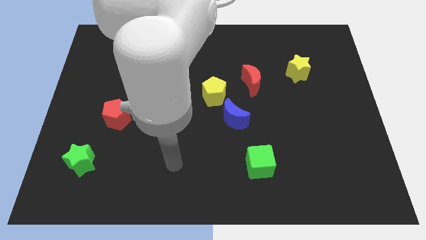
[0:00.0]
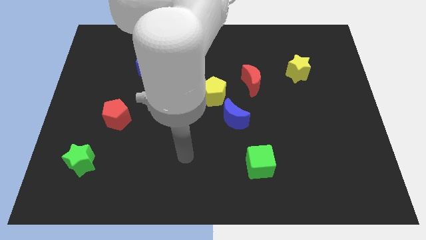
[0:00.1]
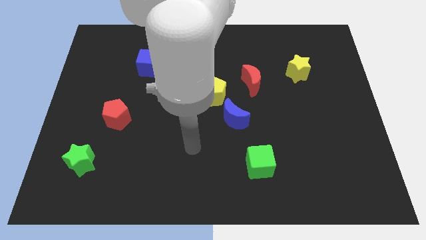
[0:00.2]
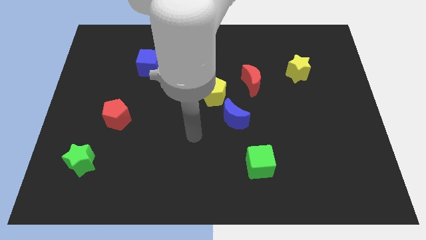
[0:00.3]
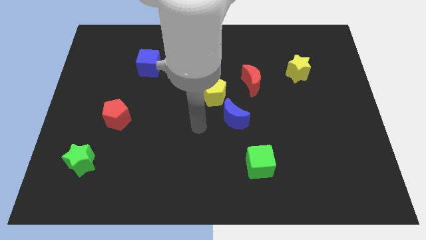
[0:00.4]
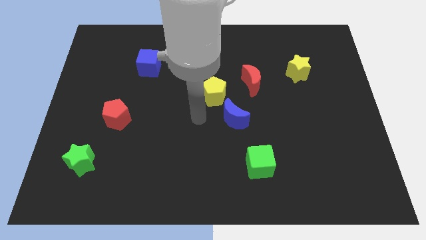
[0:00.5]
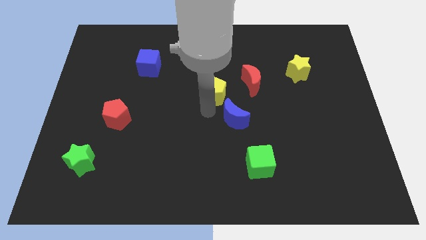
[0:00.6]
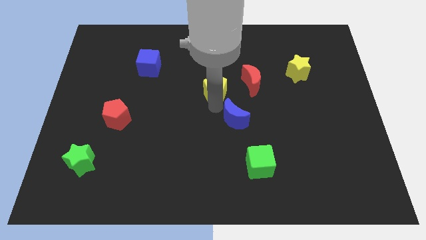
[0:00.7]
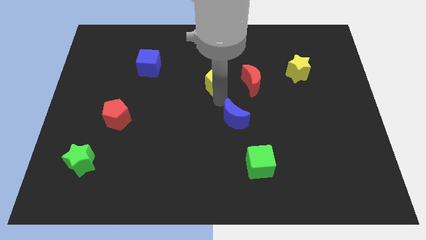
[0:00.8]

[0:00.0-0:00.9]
move the blue moon away from the yellow pentagon

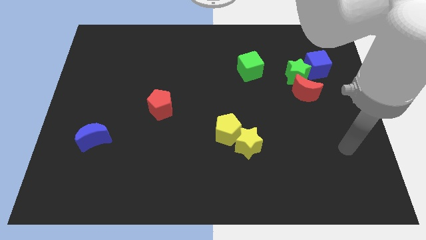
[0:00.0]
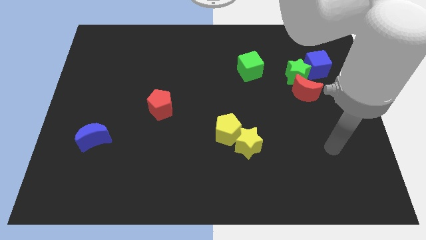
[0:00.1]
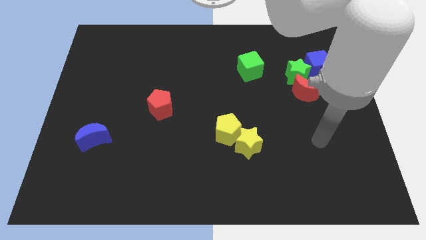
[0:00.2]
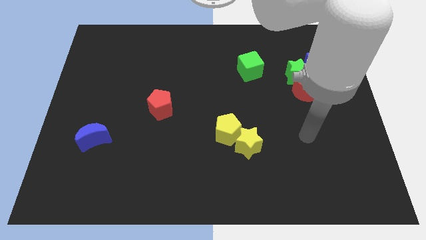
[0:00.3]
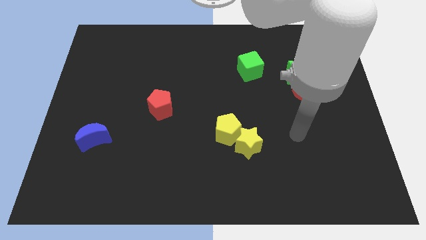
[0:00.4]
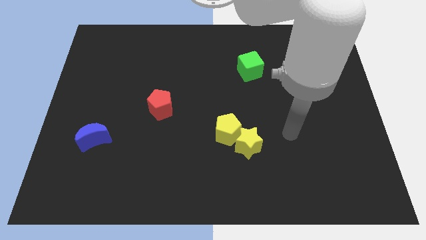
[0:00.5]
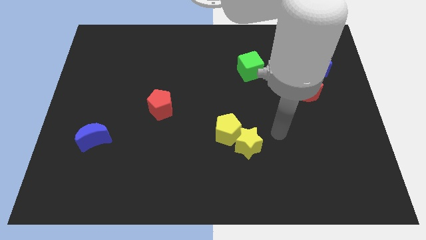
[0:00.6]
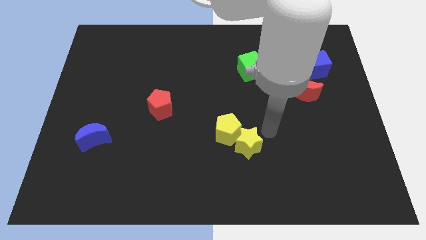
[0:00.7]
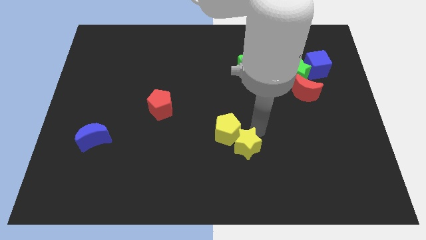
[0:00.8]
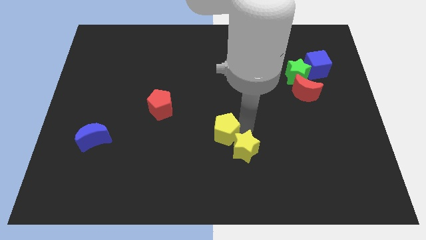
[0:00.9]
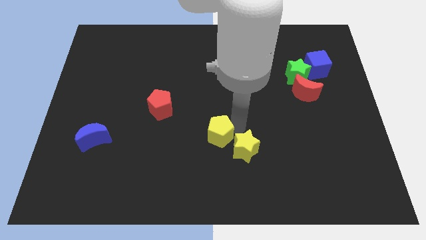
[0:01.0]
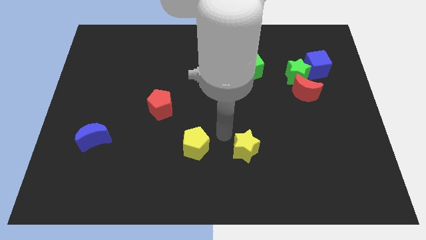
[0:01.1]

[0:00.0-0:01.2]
pull the yellow star apart from the yellow pentagon

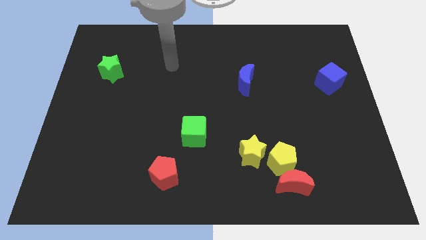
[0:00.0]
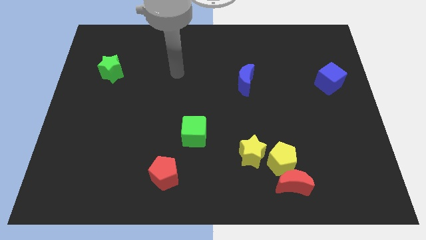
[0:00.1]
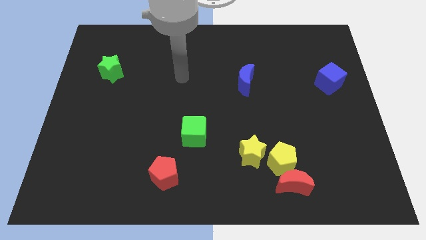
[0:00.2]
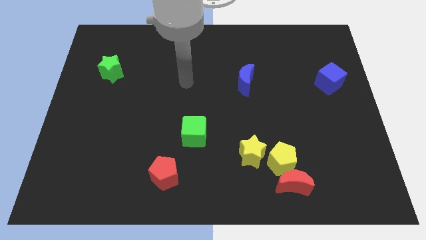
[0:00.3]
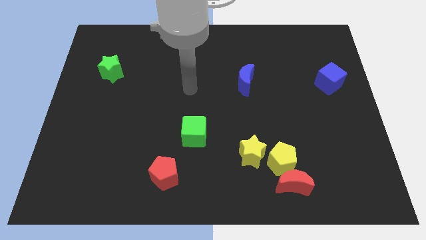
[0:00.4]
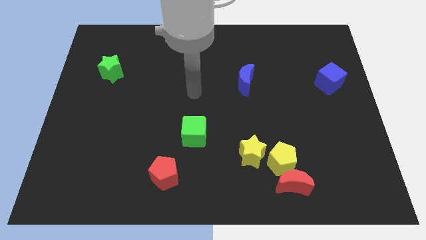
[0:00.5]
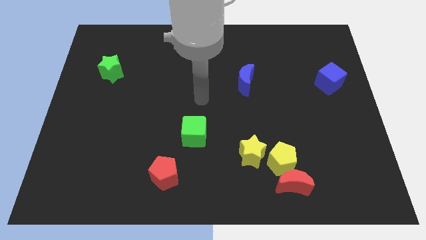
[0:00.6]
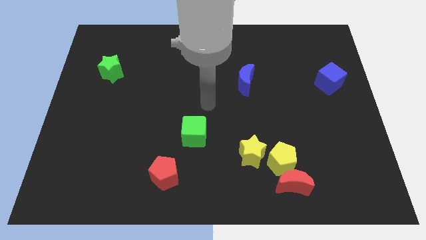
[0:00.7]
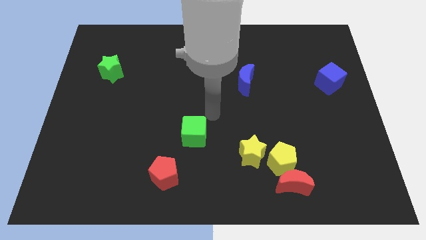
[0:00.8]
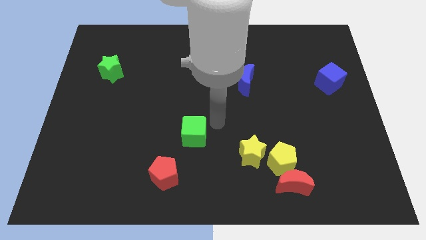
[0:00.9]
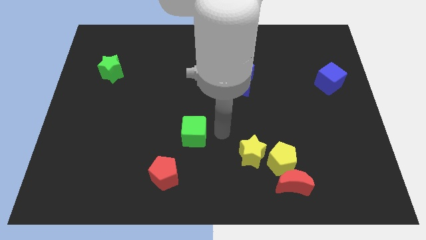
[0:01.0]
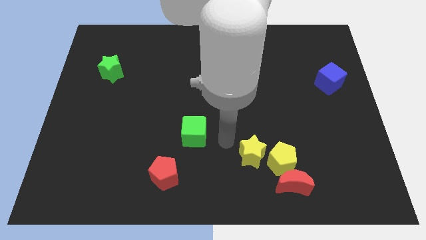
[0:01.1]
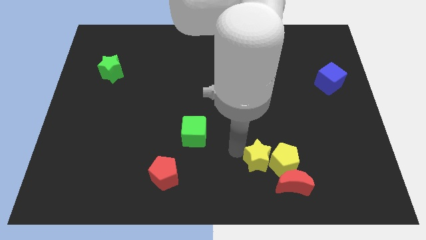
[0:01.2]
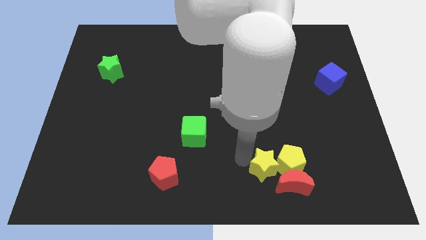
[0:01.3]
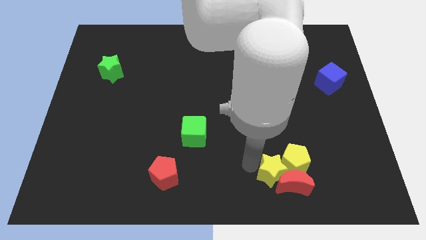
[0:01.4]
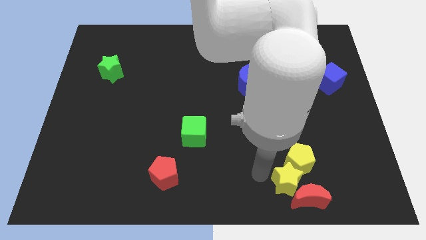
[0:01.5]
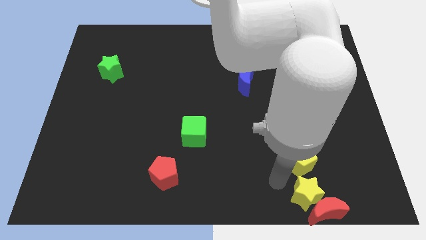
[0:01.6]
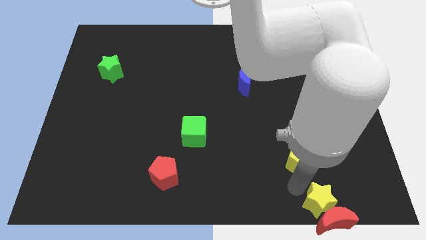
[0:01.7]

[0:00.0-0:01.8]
pull the yellow pentagon apart from the red moon and yellow star

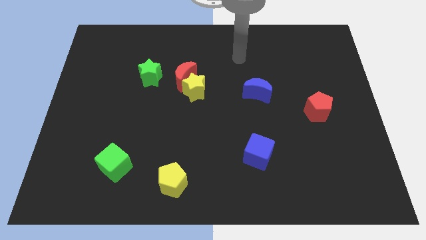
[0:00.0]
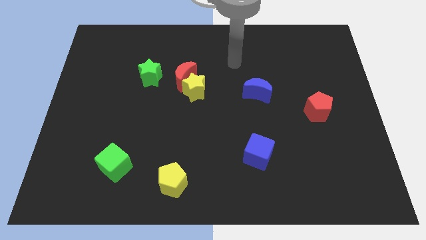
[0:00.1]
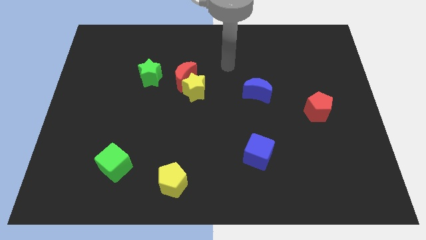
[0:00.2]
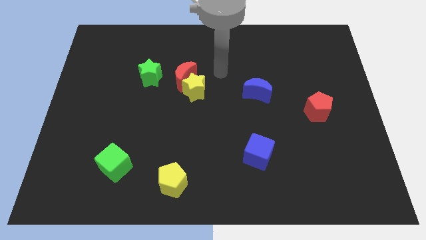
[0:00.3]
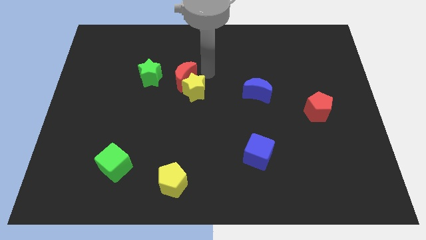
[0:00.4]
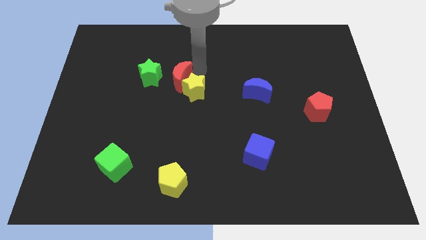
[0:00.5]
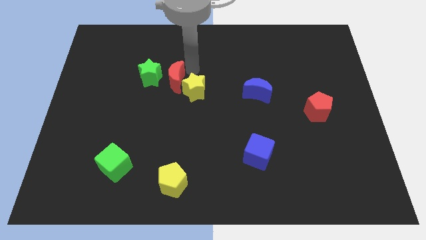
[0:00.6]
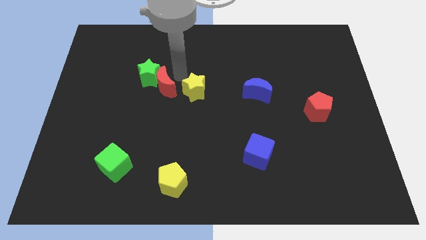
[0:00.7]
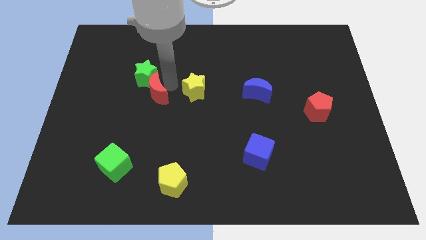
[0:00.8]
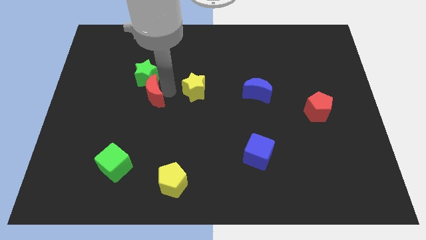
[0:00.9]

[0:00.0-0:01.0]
pull the yellow star apart from the red moon

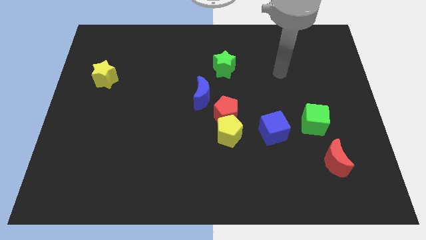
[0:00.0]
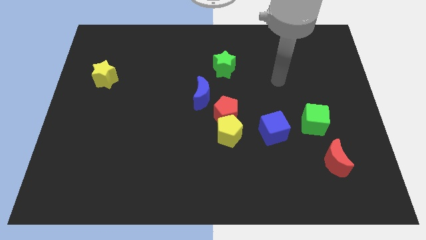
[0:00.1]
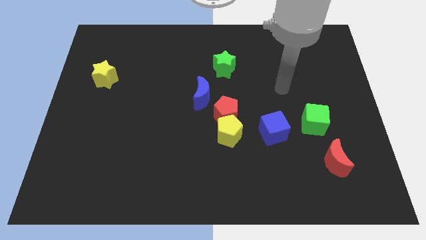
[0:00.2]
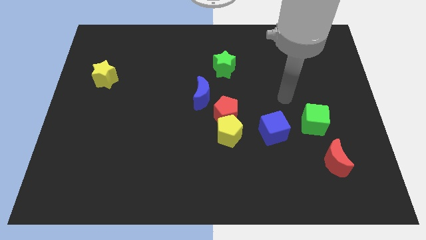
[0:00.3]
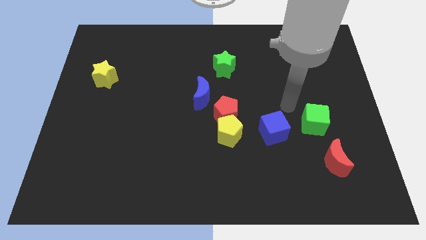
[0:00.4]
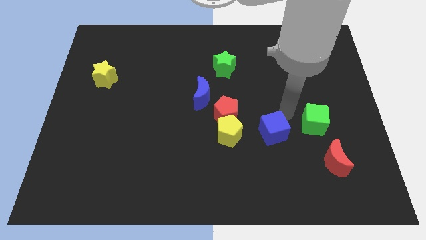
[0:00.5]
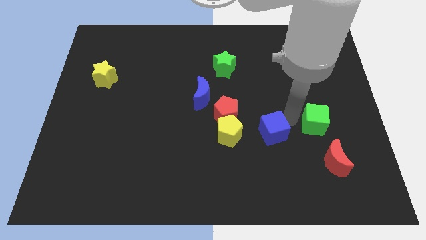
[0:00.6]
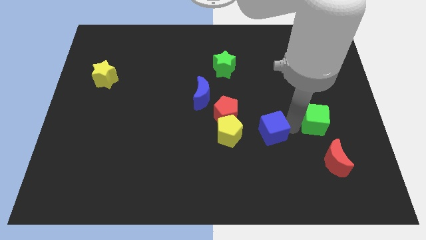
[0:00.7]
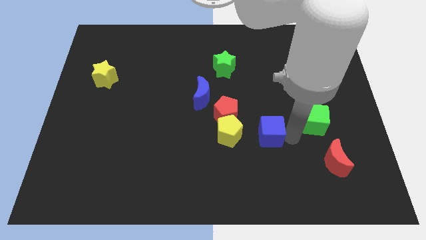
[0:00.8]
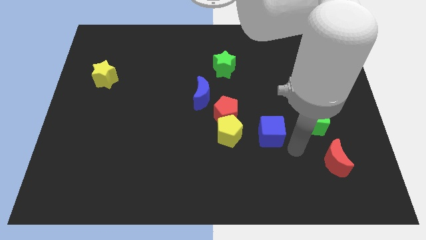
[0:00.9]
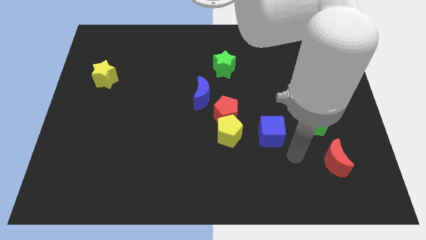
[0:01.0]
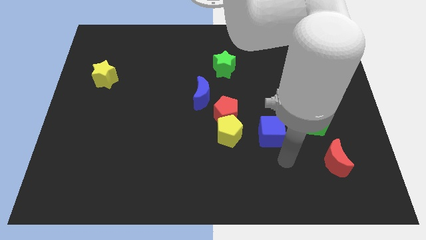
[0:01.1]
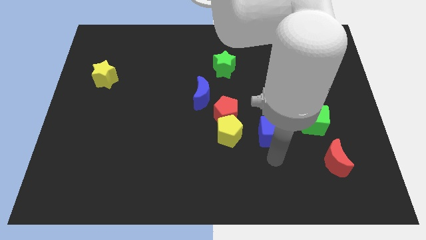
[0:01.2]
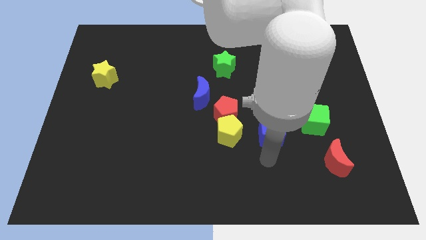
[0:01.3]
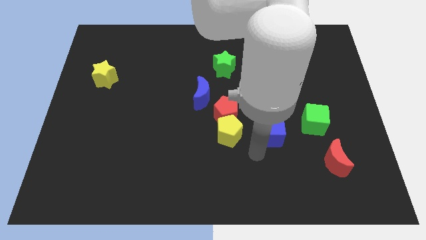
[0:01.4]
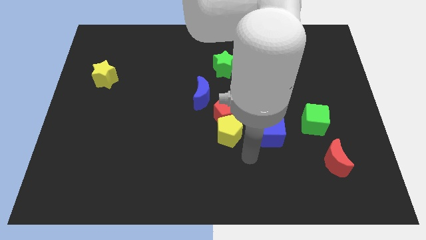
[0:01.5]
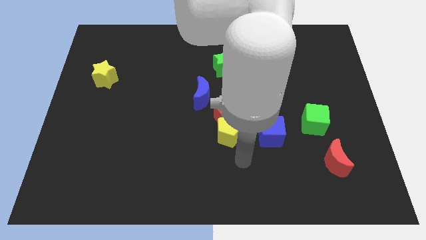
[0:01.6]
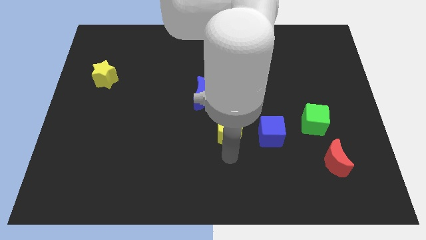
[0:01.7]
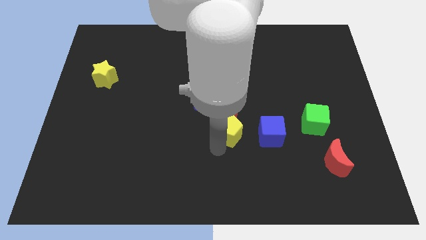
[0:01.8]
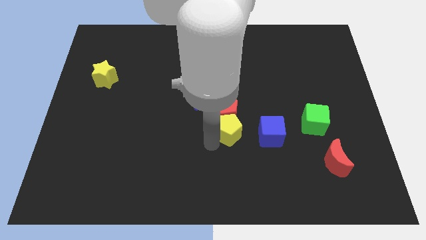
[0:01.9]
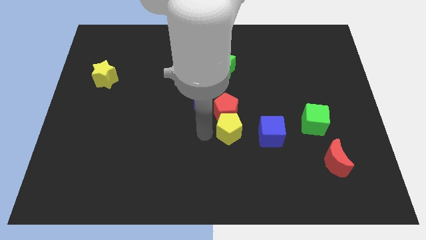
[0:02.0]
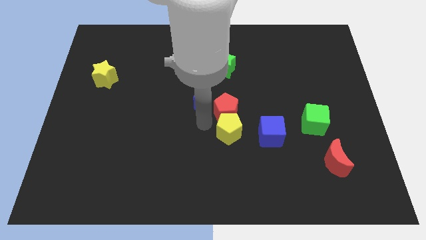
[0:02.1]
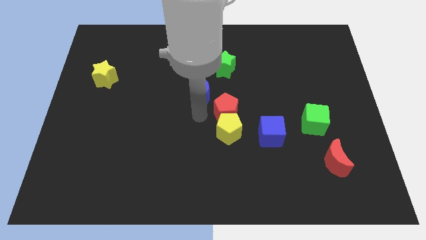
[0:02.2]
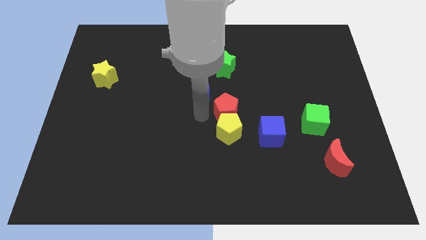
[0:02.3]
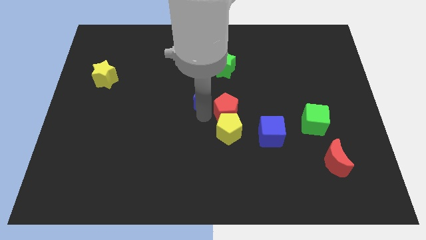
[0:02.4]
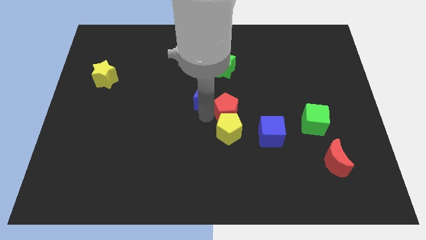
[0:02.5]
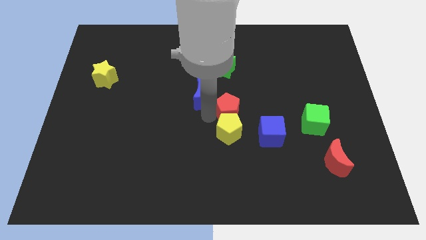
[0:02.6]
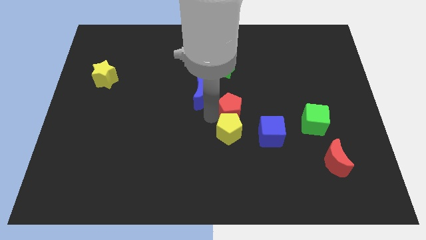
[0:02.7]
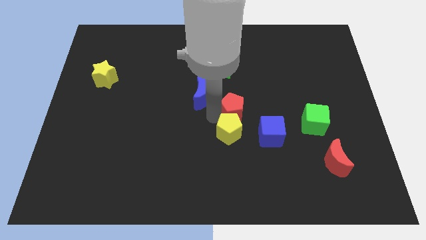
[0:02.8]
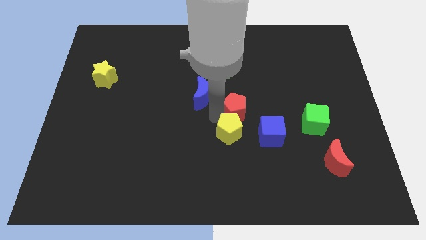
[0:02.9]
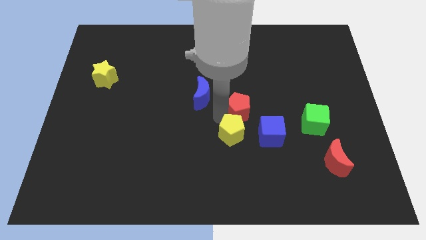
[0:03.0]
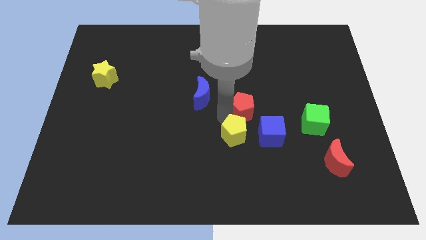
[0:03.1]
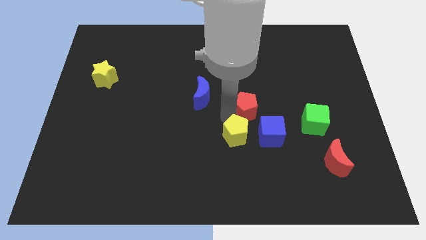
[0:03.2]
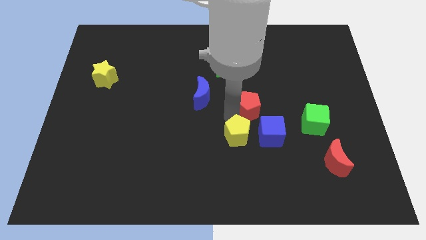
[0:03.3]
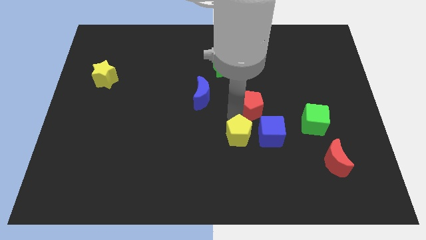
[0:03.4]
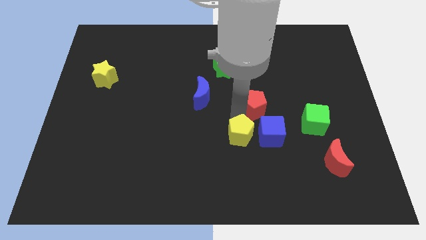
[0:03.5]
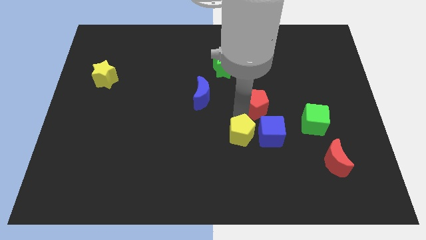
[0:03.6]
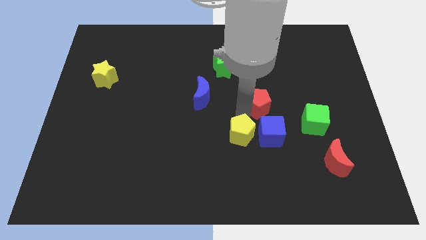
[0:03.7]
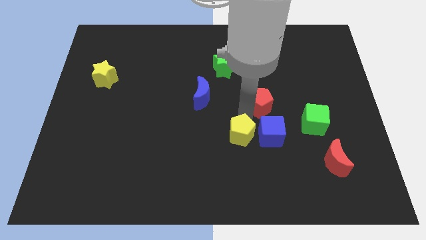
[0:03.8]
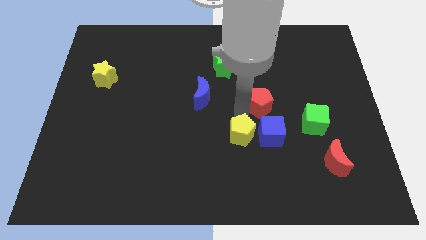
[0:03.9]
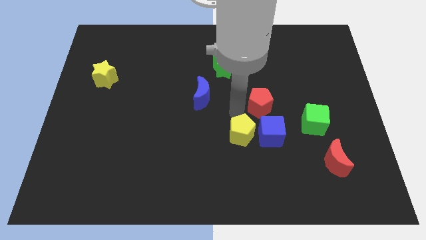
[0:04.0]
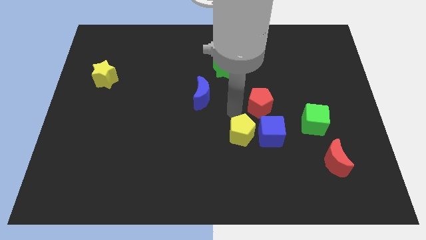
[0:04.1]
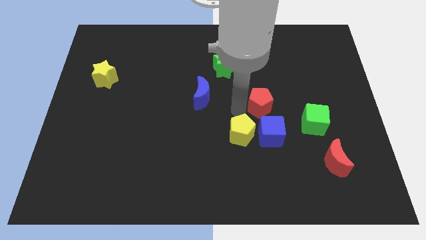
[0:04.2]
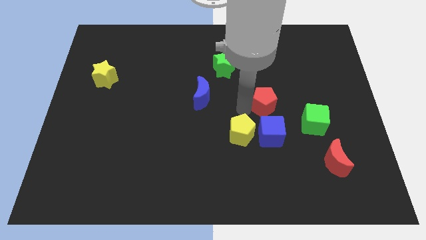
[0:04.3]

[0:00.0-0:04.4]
separate the red pentagon from the yellow pentagon and blue moon
